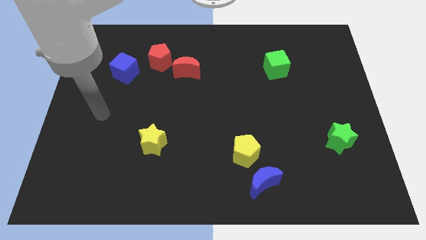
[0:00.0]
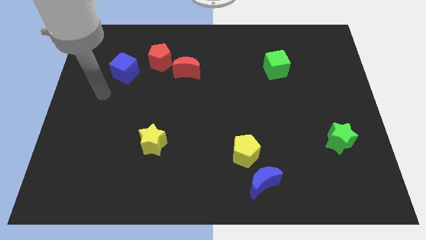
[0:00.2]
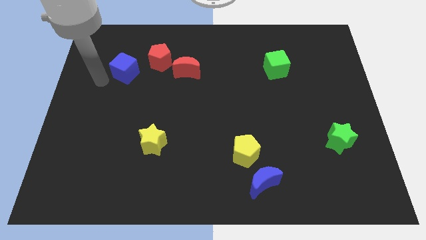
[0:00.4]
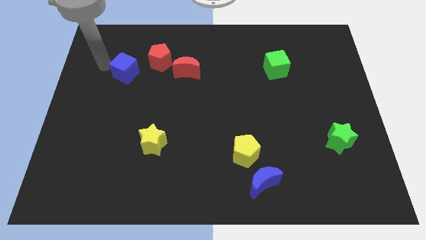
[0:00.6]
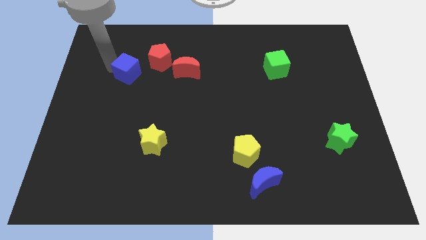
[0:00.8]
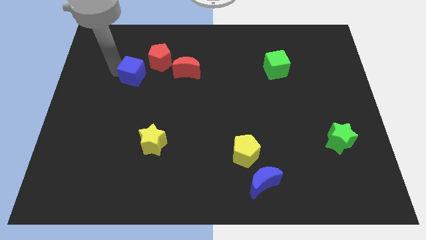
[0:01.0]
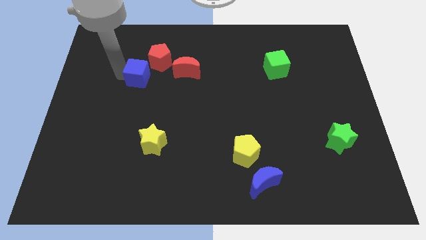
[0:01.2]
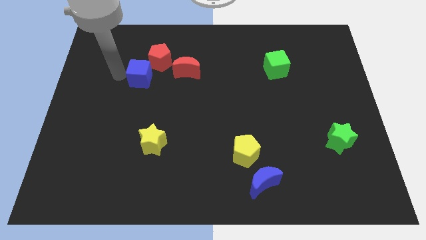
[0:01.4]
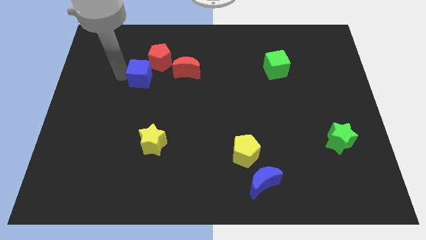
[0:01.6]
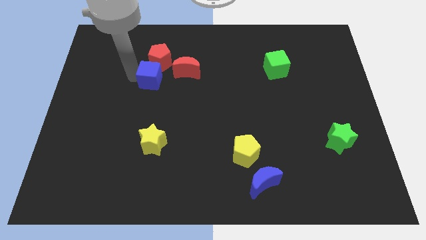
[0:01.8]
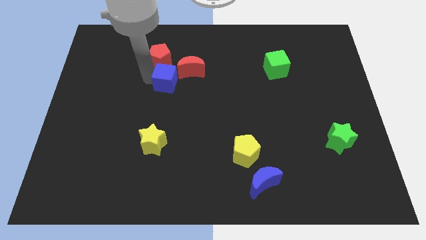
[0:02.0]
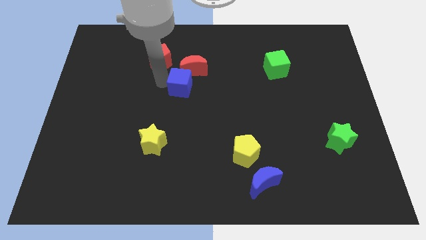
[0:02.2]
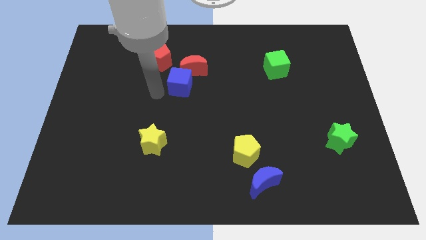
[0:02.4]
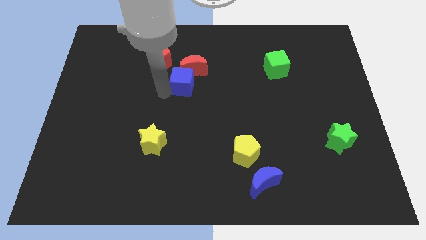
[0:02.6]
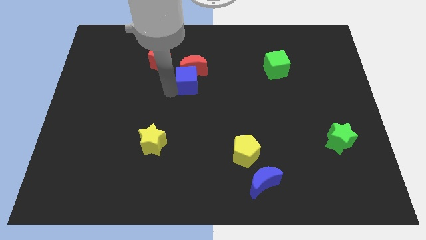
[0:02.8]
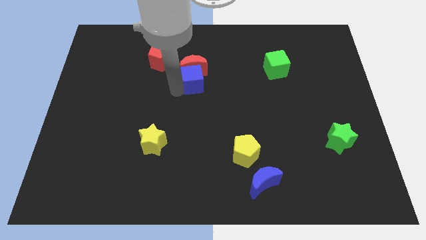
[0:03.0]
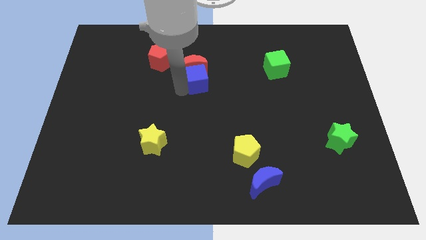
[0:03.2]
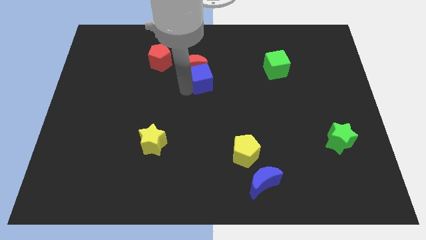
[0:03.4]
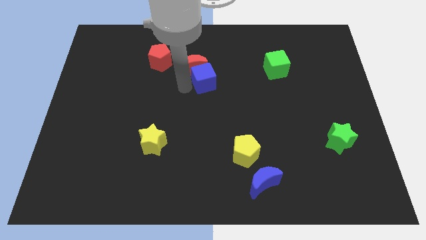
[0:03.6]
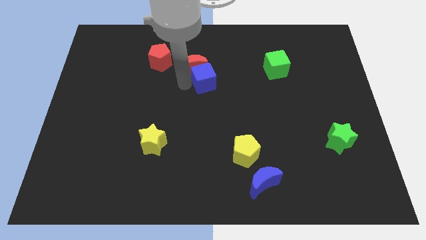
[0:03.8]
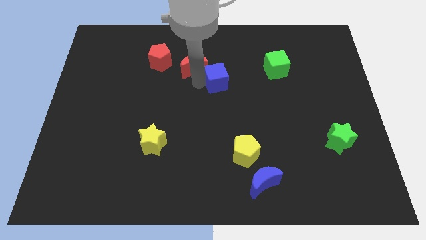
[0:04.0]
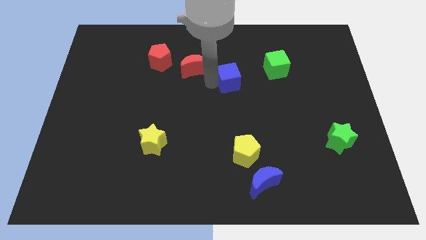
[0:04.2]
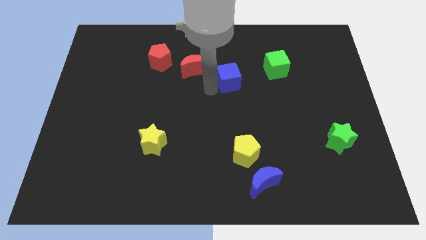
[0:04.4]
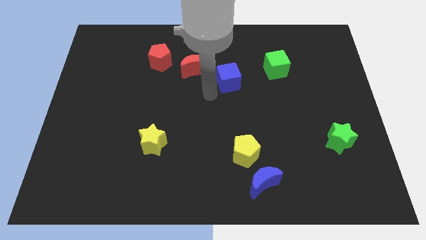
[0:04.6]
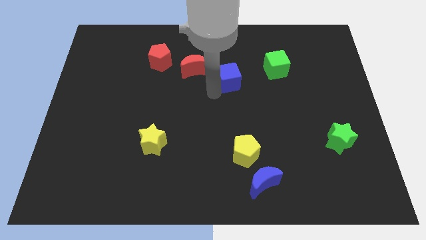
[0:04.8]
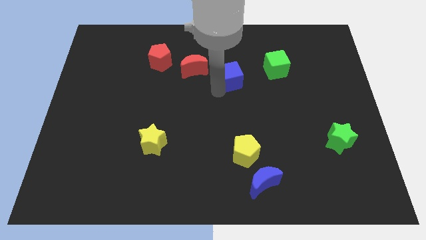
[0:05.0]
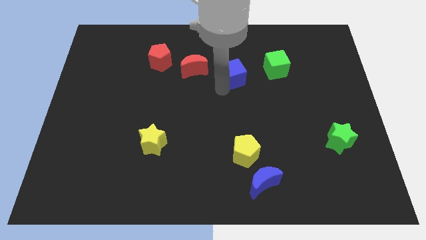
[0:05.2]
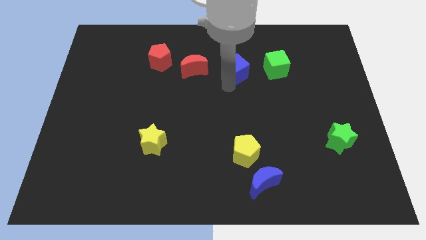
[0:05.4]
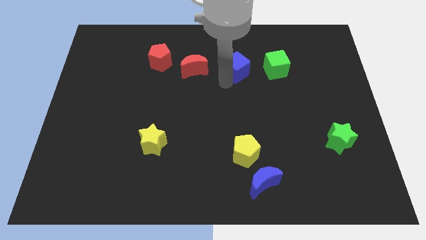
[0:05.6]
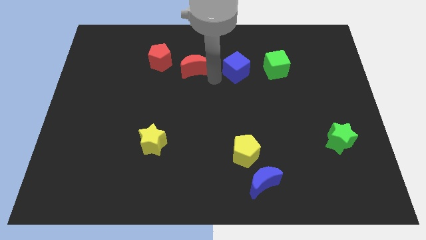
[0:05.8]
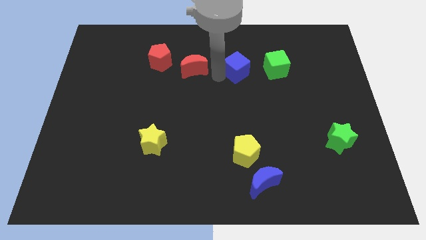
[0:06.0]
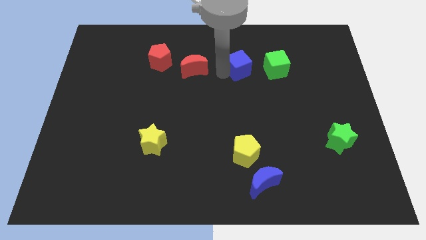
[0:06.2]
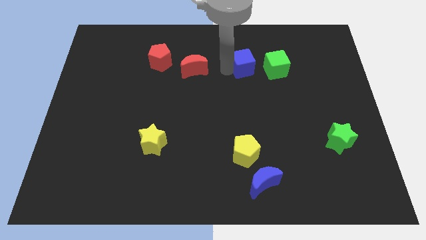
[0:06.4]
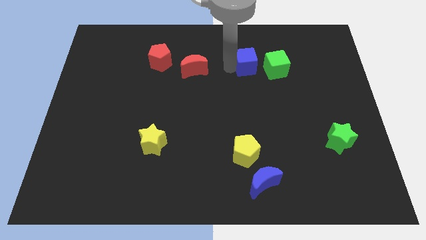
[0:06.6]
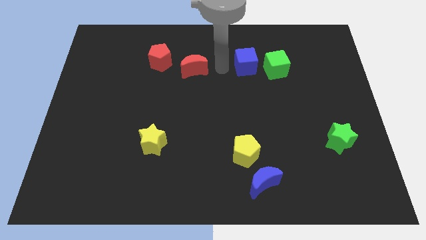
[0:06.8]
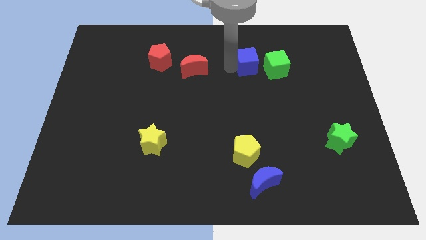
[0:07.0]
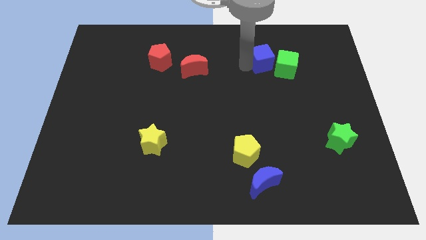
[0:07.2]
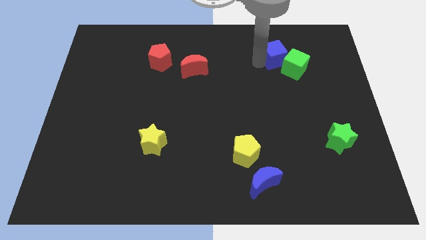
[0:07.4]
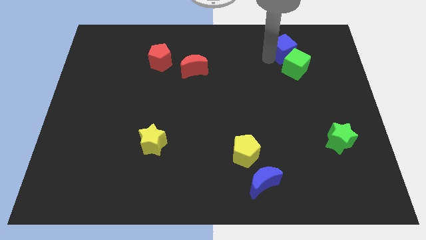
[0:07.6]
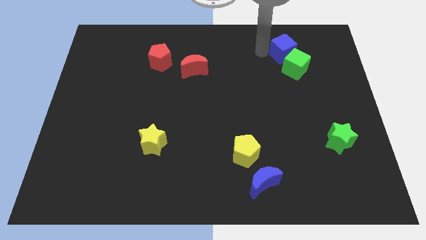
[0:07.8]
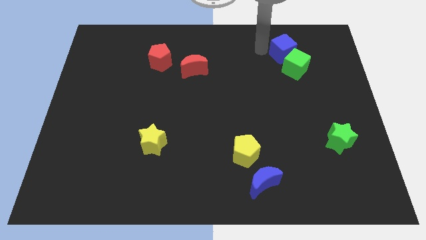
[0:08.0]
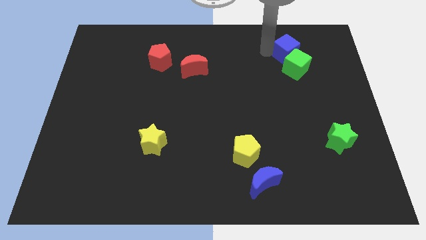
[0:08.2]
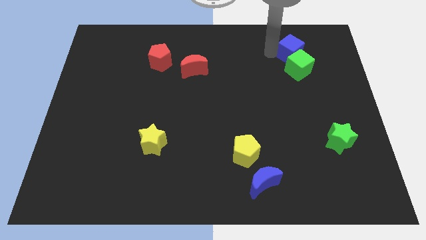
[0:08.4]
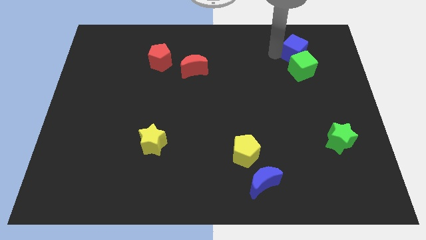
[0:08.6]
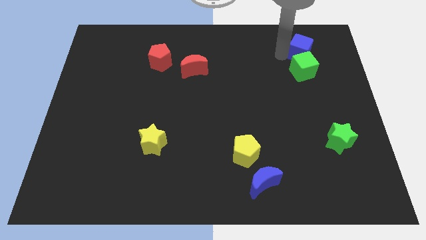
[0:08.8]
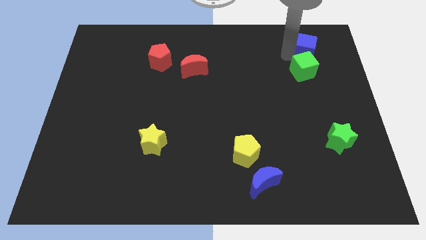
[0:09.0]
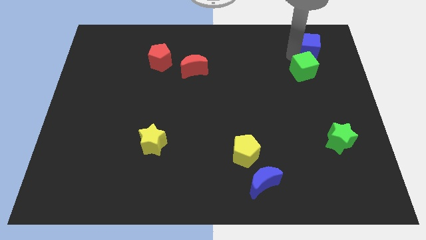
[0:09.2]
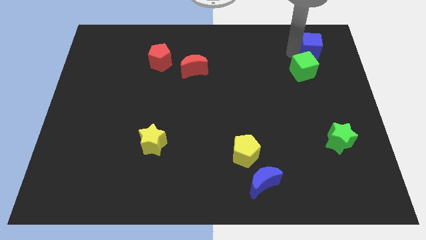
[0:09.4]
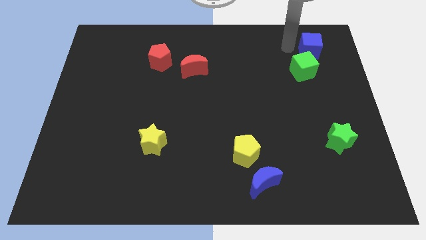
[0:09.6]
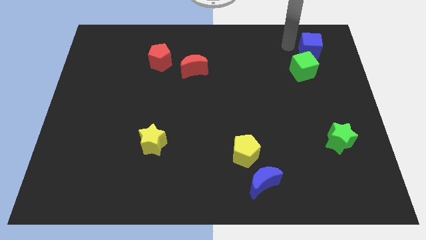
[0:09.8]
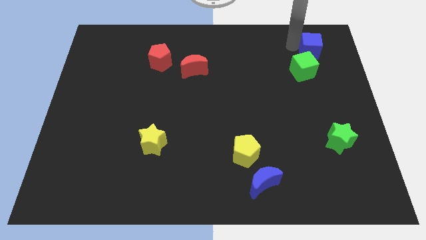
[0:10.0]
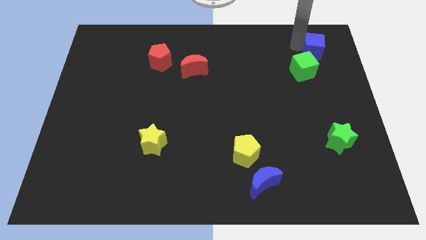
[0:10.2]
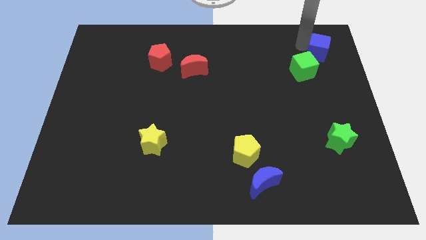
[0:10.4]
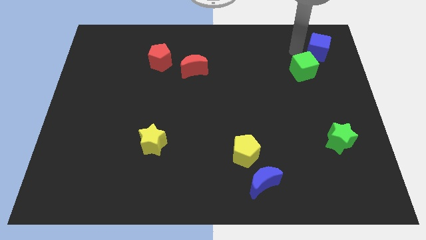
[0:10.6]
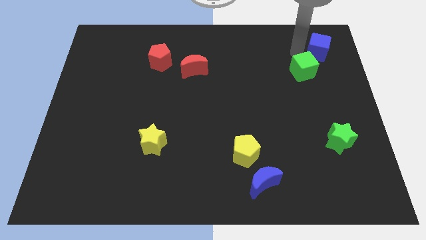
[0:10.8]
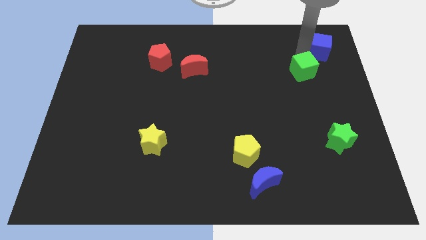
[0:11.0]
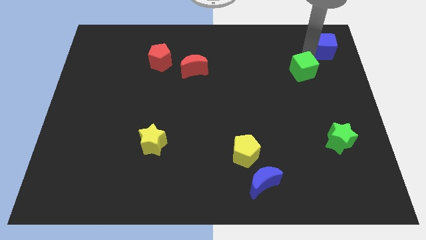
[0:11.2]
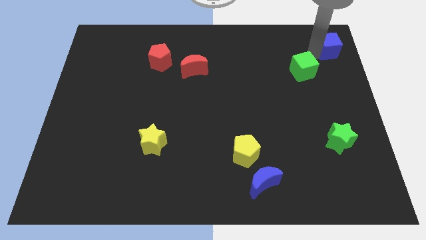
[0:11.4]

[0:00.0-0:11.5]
put the blue cube to the top right
